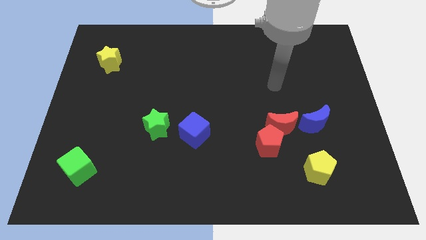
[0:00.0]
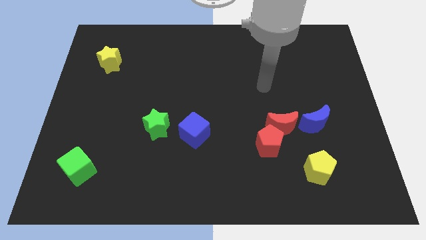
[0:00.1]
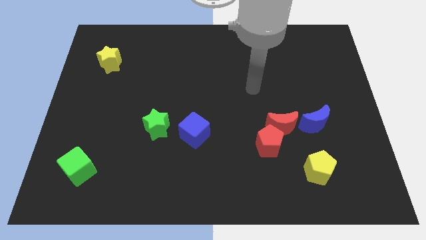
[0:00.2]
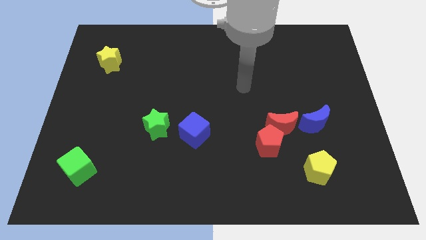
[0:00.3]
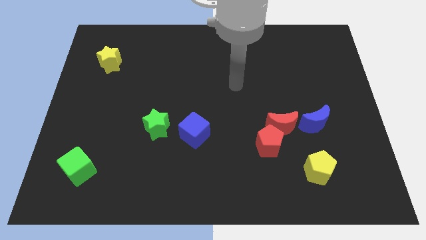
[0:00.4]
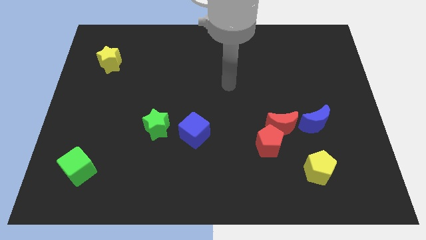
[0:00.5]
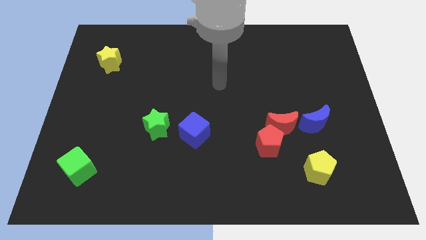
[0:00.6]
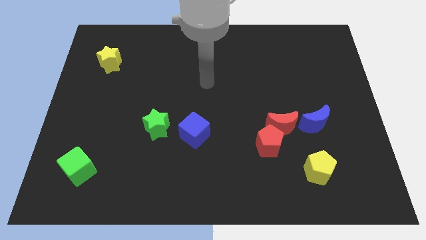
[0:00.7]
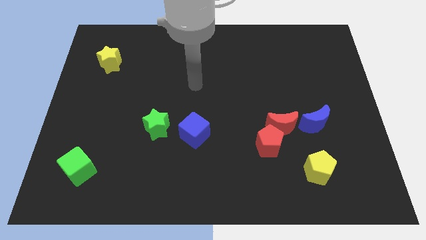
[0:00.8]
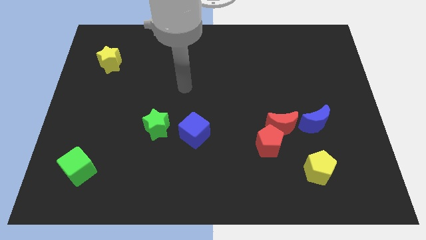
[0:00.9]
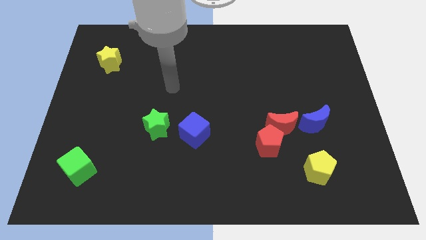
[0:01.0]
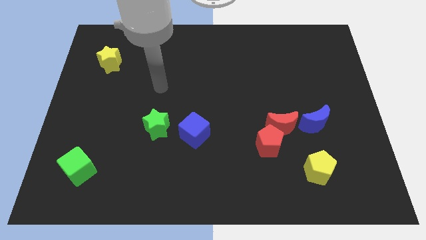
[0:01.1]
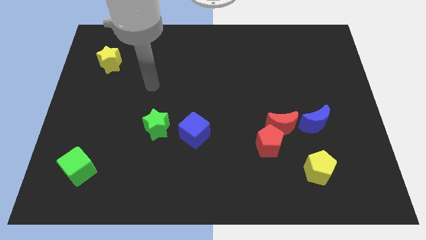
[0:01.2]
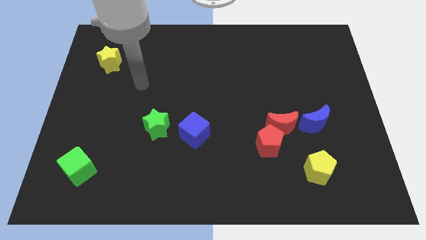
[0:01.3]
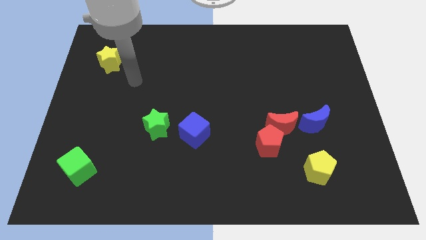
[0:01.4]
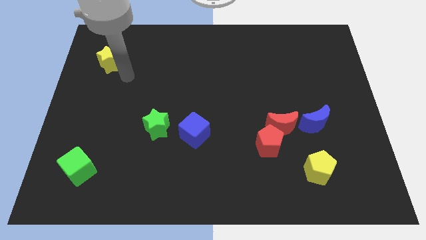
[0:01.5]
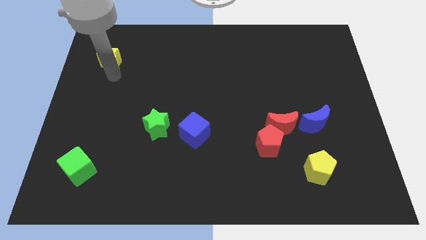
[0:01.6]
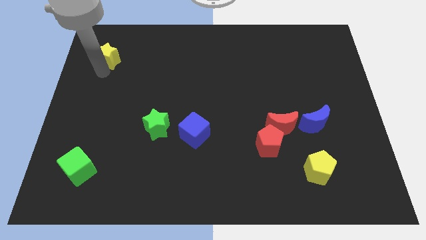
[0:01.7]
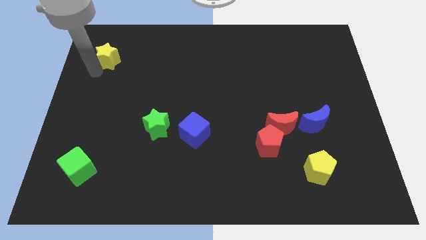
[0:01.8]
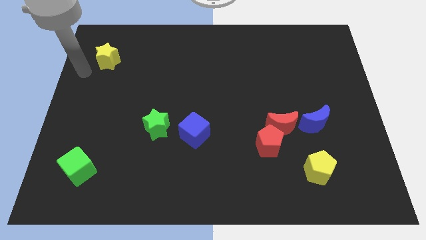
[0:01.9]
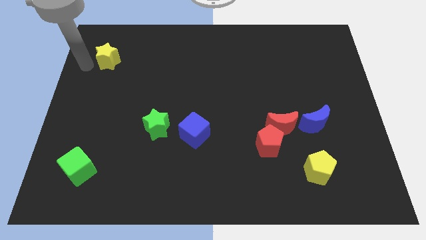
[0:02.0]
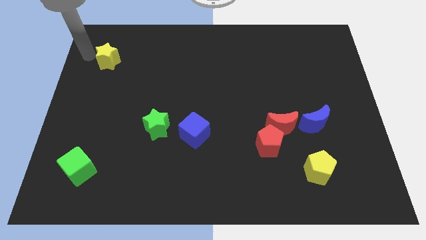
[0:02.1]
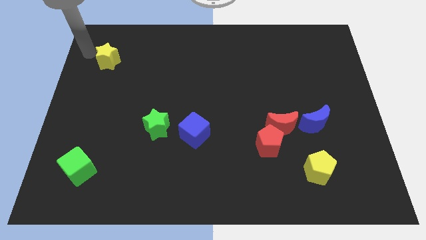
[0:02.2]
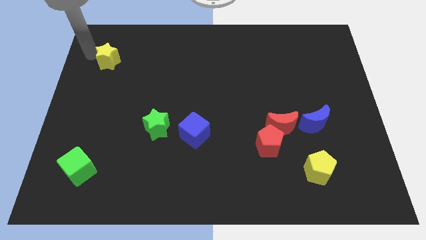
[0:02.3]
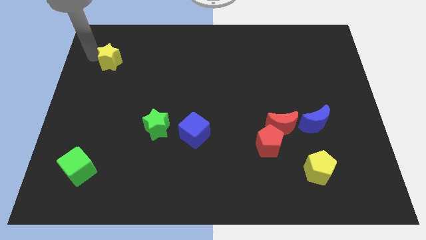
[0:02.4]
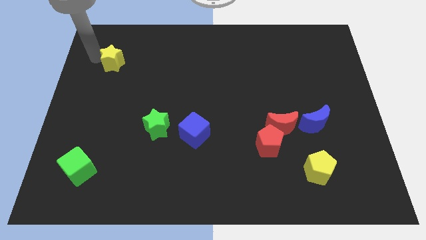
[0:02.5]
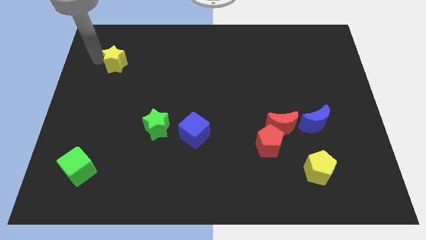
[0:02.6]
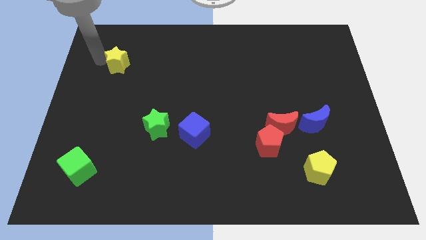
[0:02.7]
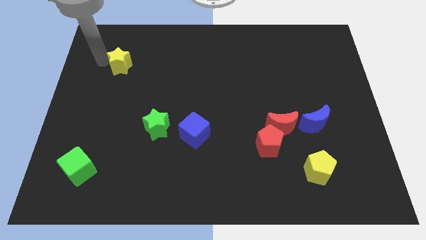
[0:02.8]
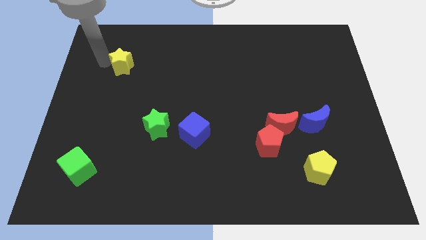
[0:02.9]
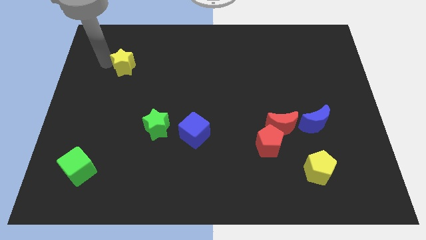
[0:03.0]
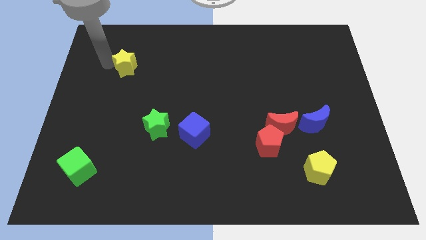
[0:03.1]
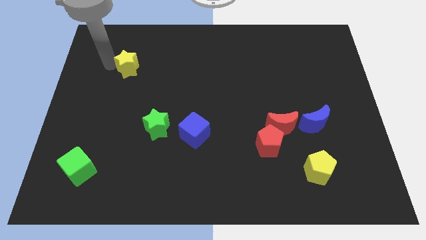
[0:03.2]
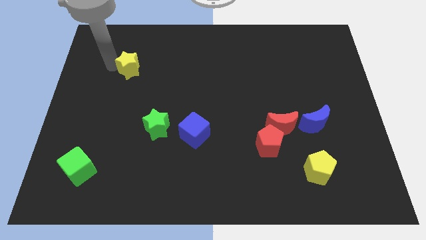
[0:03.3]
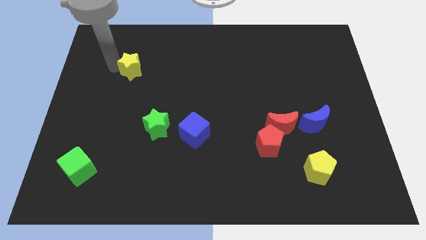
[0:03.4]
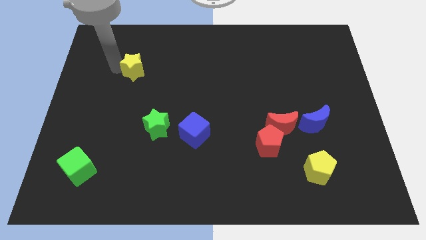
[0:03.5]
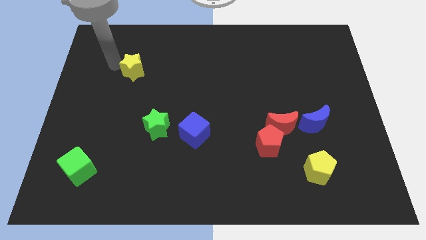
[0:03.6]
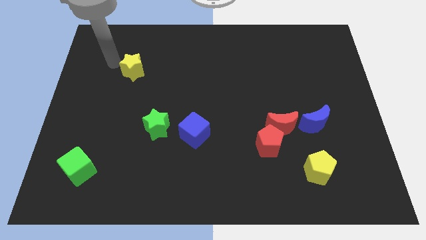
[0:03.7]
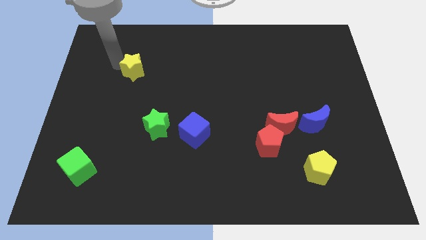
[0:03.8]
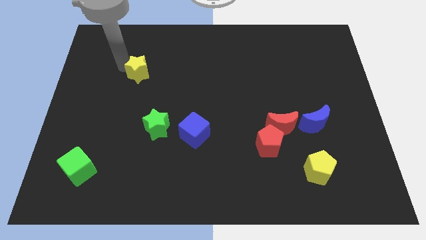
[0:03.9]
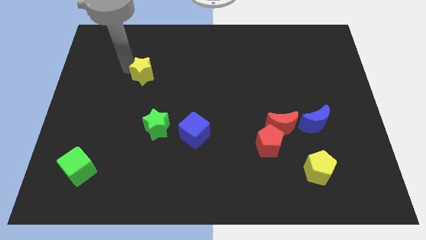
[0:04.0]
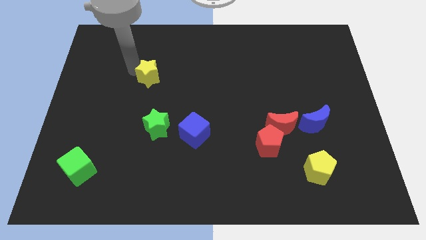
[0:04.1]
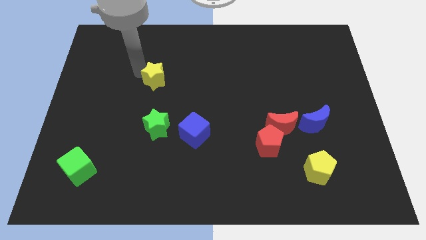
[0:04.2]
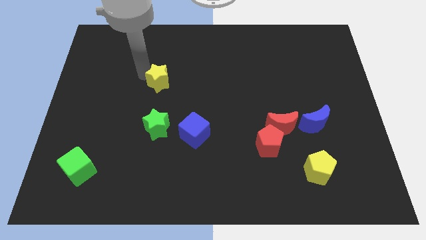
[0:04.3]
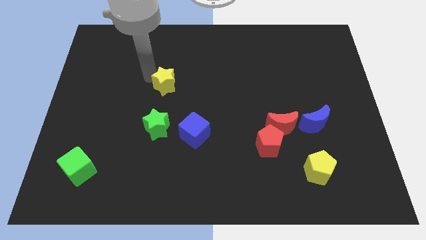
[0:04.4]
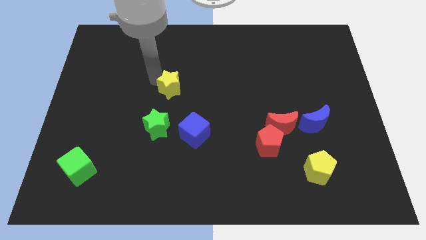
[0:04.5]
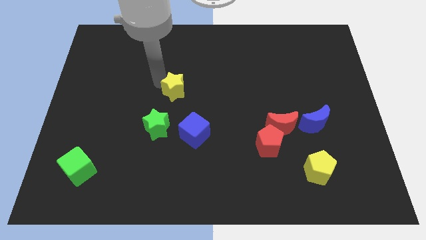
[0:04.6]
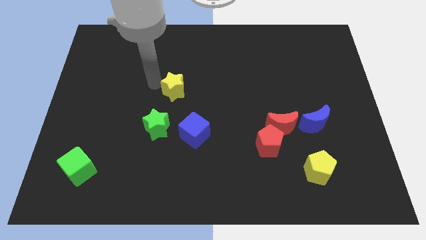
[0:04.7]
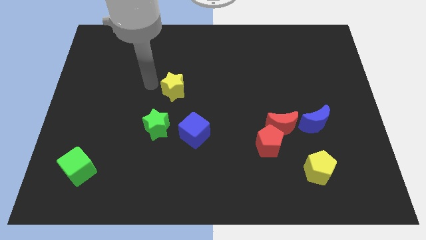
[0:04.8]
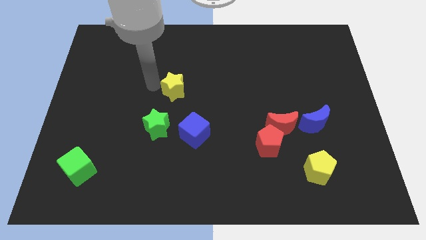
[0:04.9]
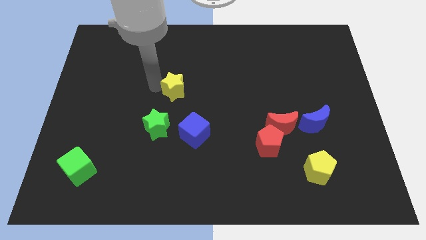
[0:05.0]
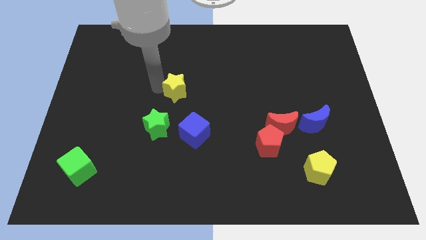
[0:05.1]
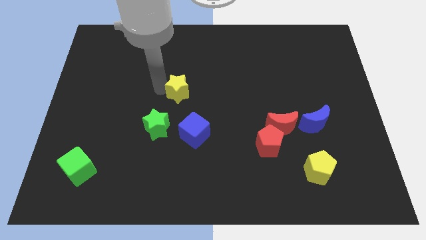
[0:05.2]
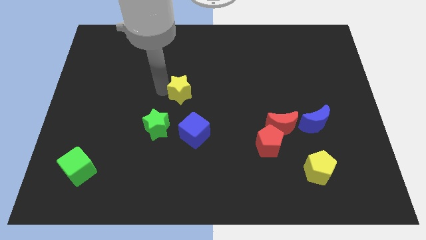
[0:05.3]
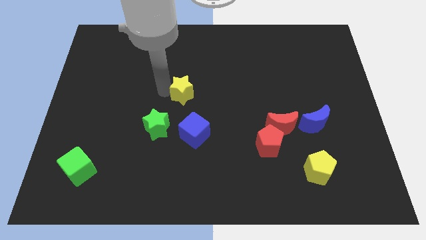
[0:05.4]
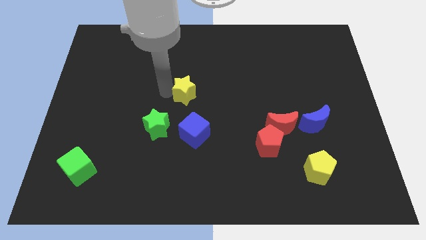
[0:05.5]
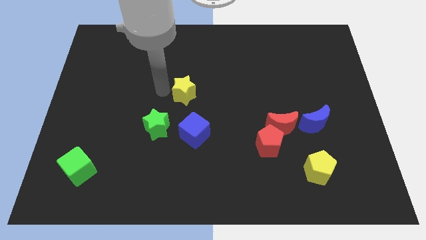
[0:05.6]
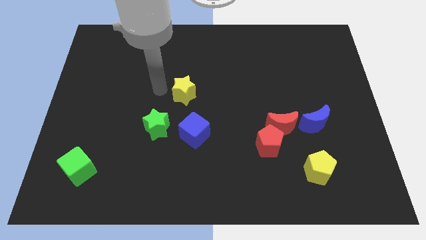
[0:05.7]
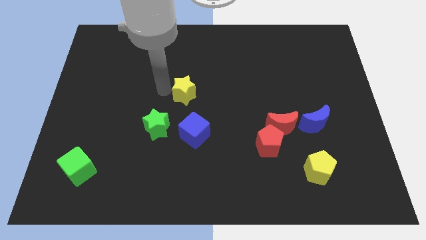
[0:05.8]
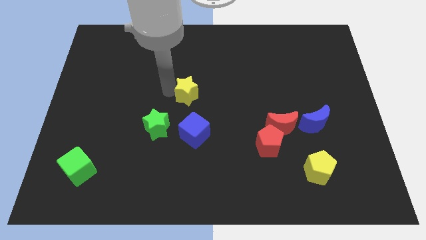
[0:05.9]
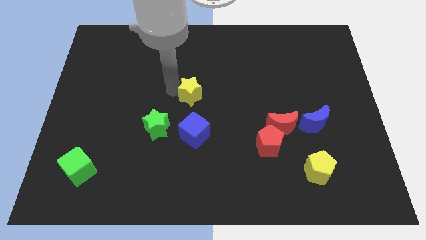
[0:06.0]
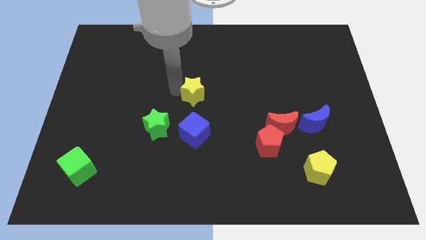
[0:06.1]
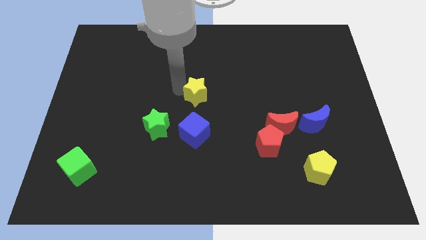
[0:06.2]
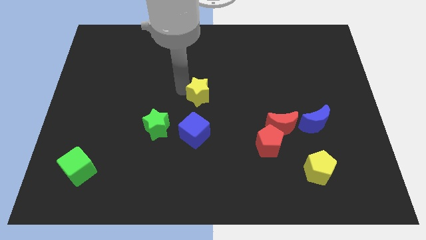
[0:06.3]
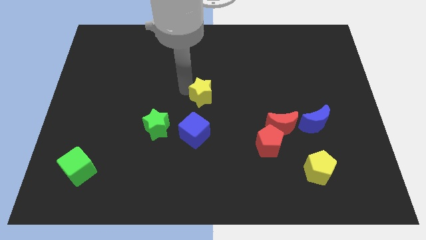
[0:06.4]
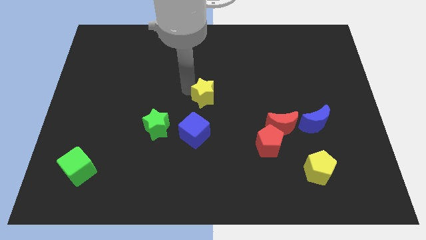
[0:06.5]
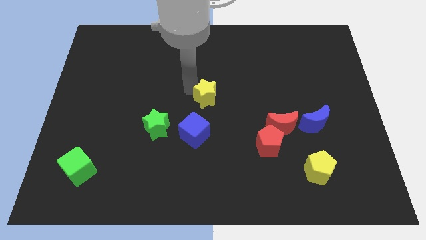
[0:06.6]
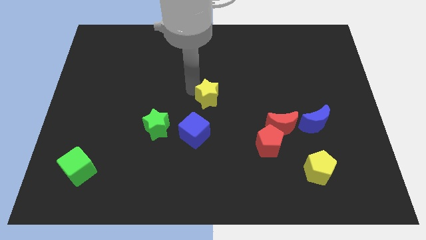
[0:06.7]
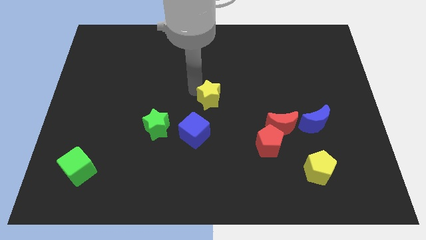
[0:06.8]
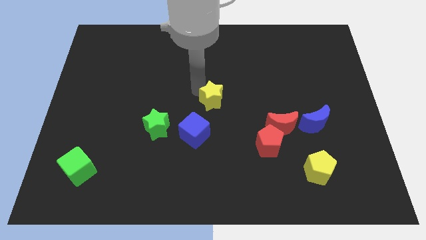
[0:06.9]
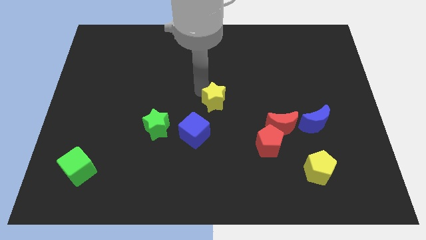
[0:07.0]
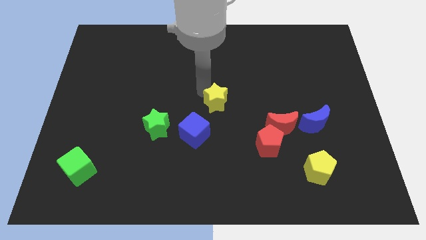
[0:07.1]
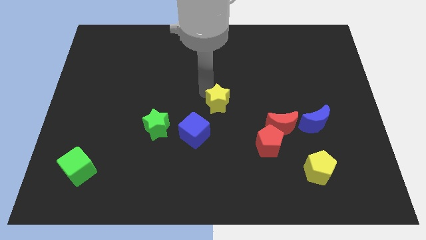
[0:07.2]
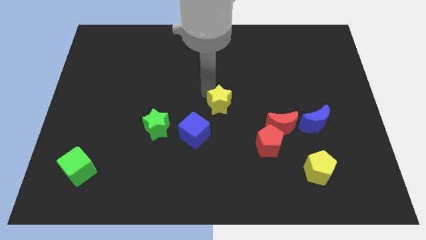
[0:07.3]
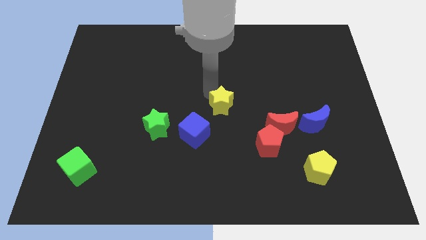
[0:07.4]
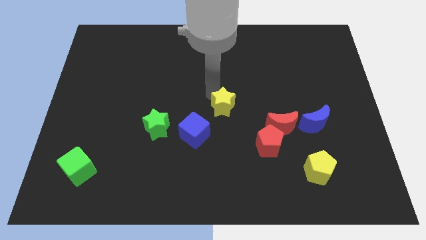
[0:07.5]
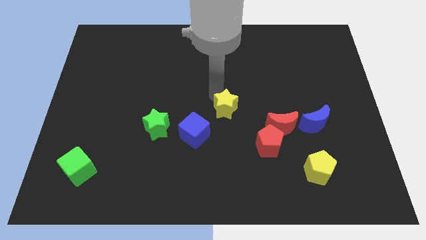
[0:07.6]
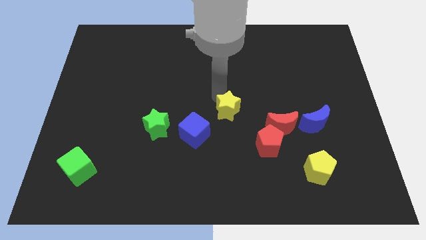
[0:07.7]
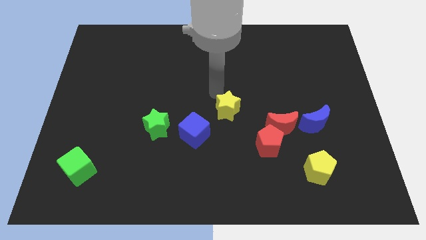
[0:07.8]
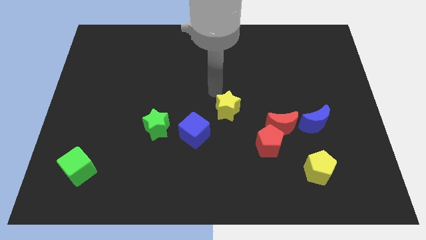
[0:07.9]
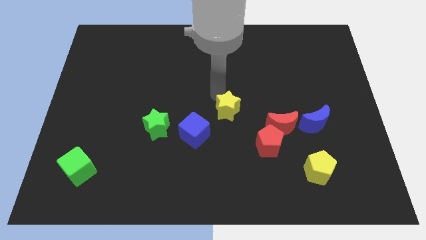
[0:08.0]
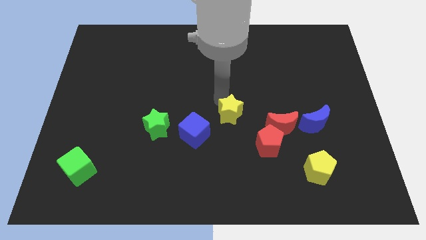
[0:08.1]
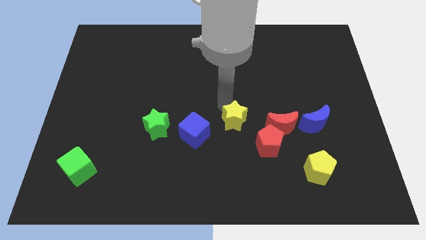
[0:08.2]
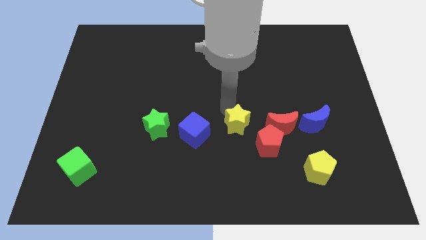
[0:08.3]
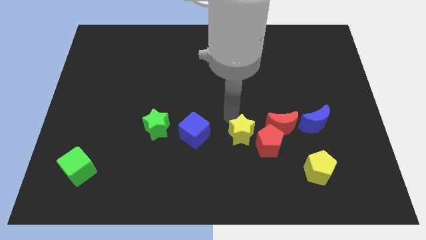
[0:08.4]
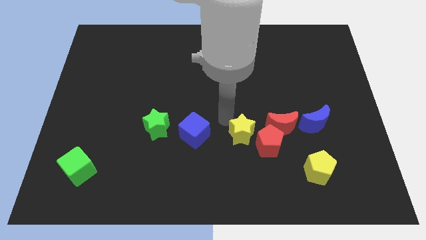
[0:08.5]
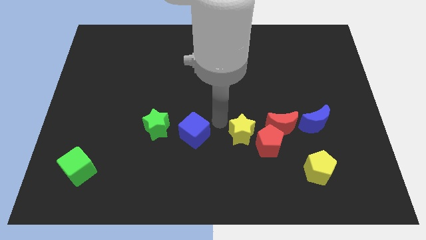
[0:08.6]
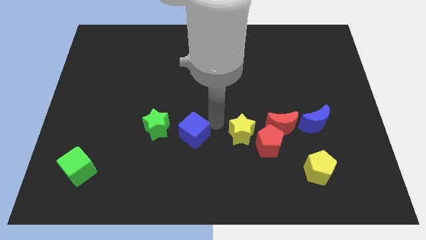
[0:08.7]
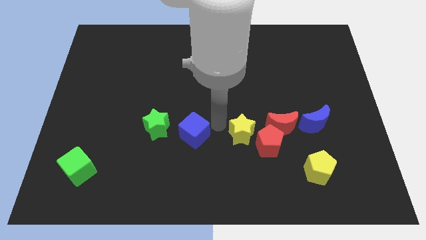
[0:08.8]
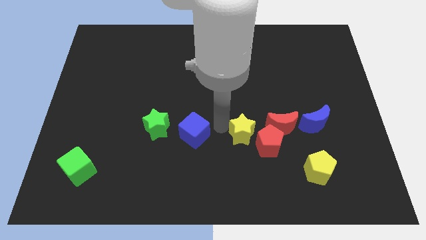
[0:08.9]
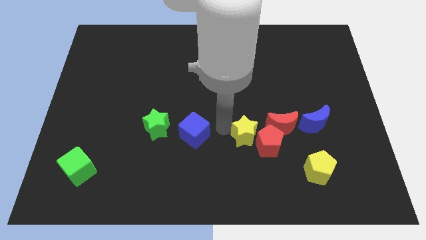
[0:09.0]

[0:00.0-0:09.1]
push the yellow star close to the red pentagon
